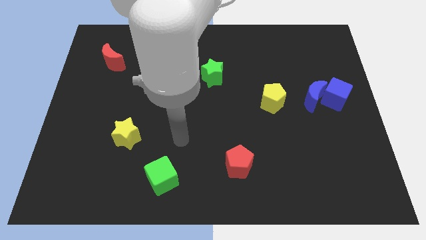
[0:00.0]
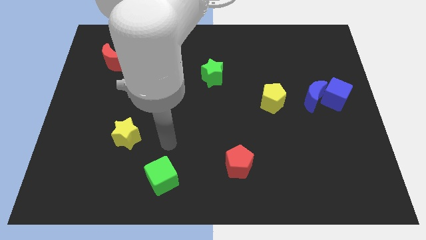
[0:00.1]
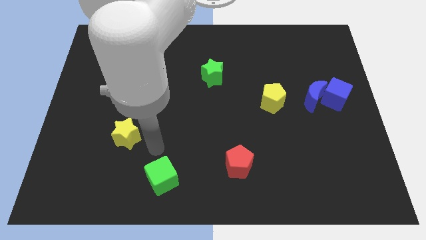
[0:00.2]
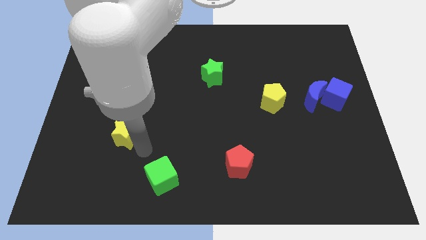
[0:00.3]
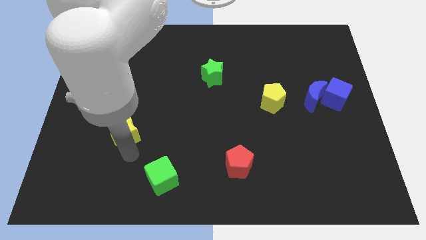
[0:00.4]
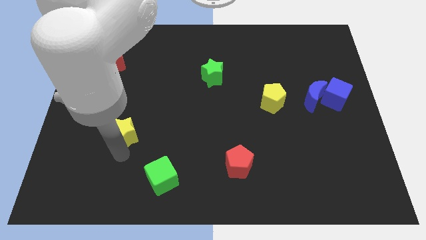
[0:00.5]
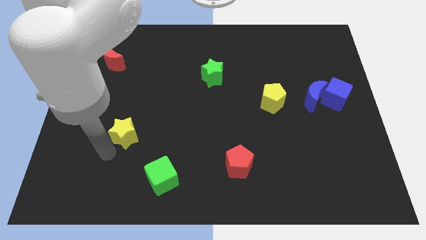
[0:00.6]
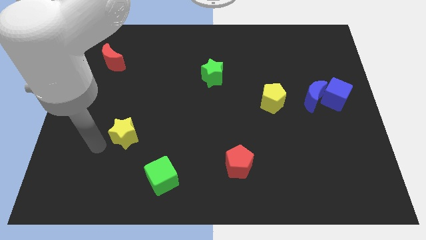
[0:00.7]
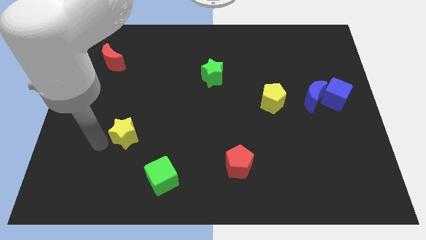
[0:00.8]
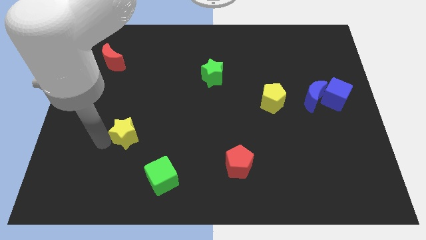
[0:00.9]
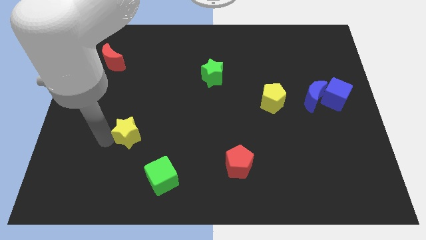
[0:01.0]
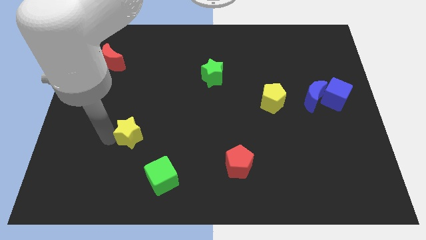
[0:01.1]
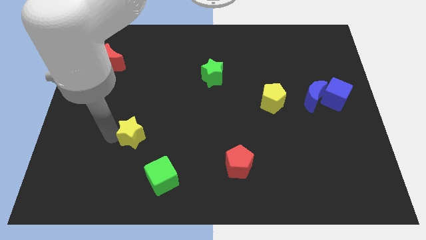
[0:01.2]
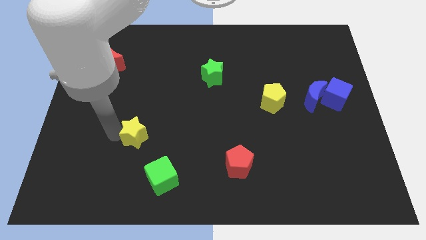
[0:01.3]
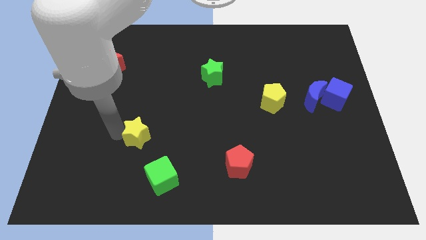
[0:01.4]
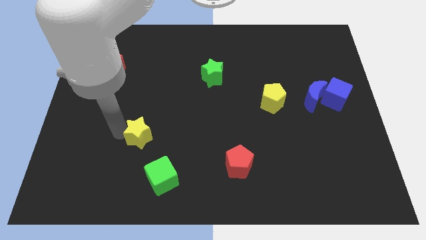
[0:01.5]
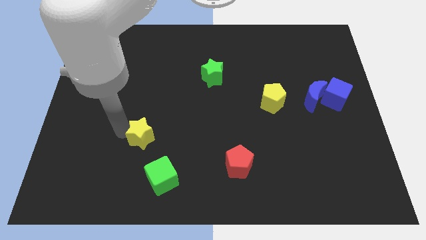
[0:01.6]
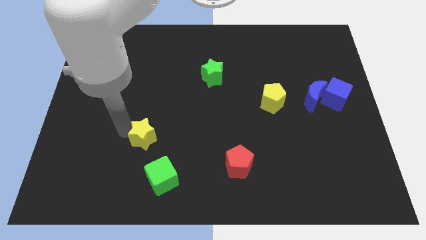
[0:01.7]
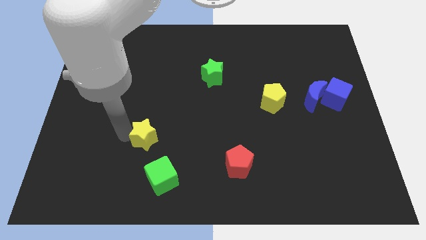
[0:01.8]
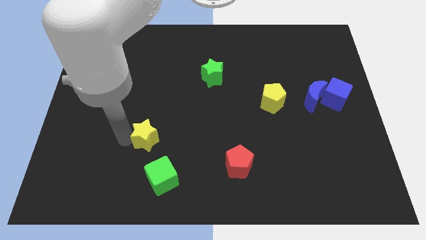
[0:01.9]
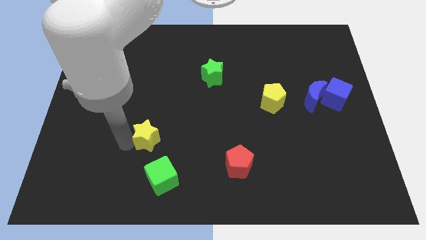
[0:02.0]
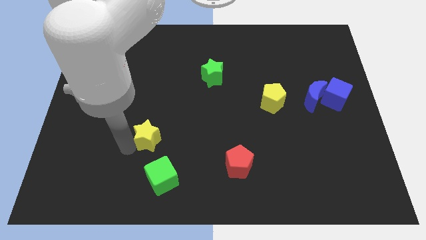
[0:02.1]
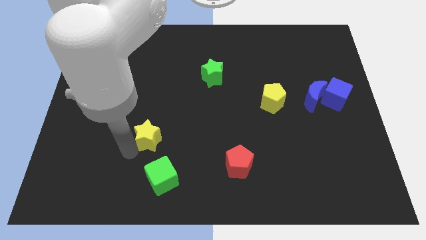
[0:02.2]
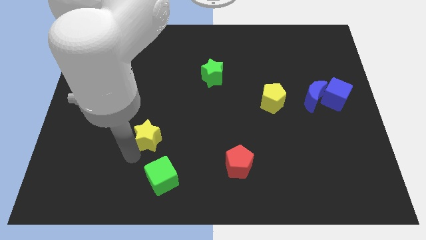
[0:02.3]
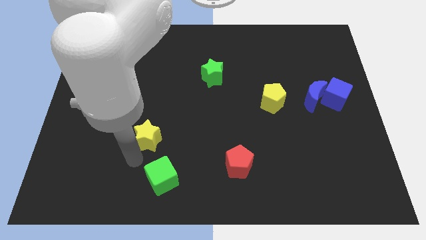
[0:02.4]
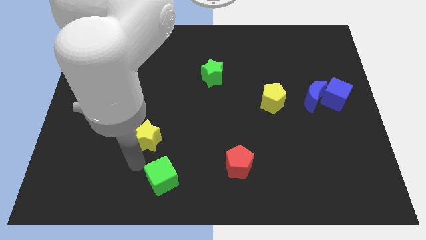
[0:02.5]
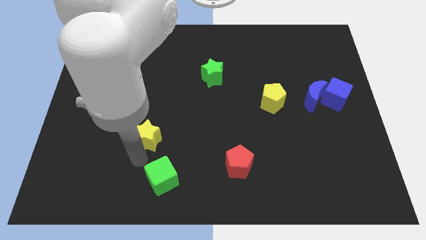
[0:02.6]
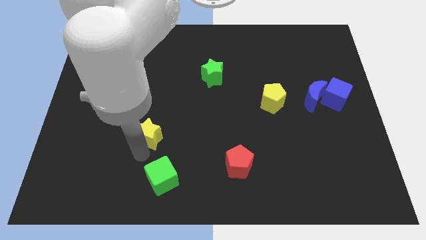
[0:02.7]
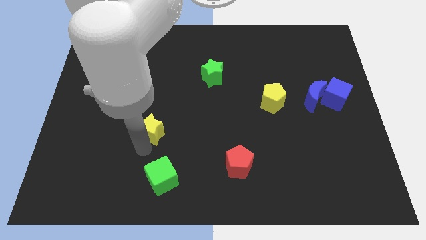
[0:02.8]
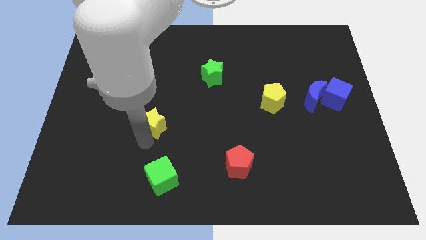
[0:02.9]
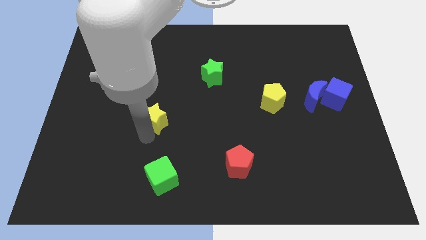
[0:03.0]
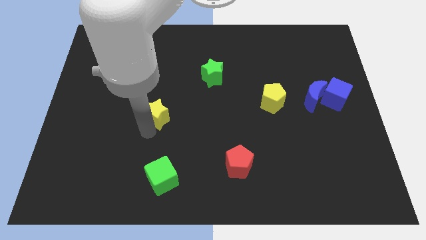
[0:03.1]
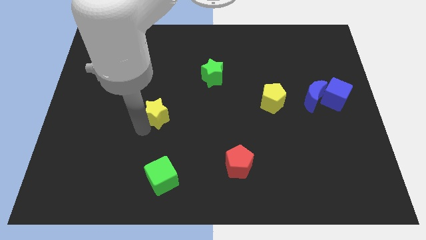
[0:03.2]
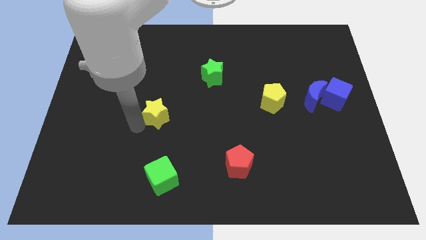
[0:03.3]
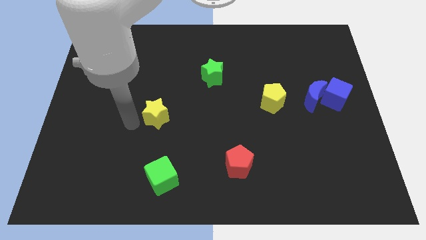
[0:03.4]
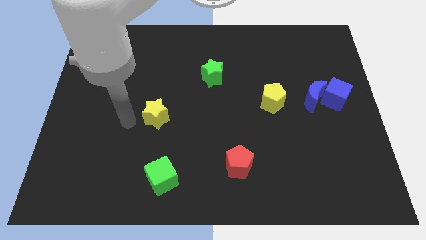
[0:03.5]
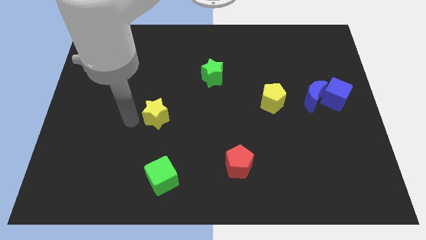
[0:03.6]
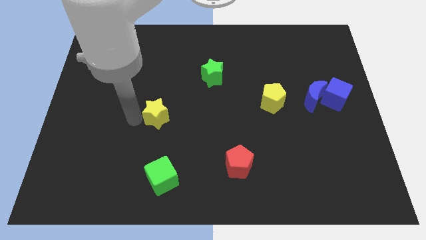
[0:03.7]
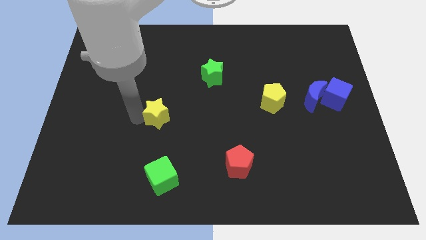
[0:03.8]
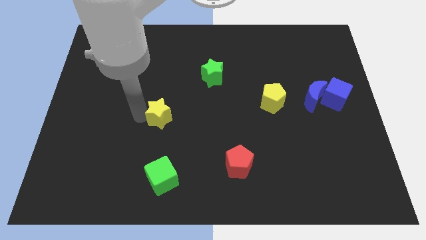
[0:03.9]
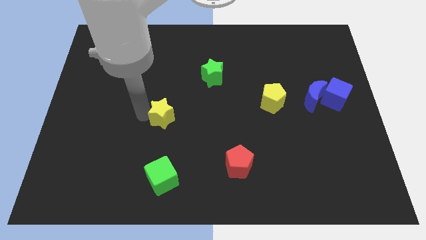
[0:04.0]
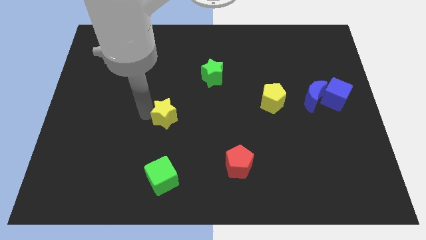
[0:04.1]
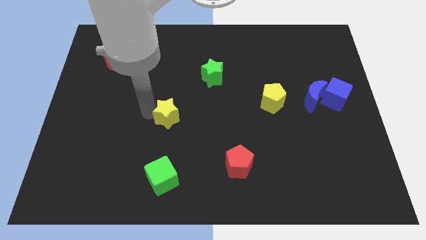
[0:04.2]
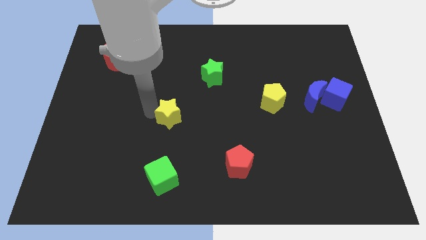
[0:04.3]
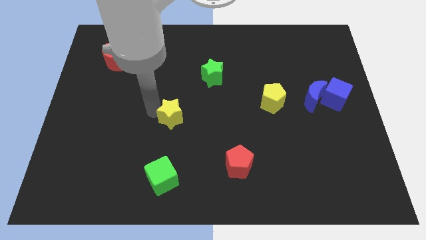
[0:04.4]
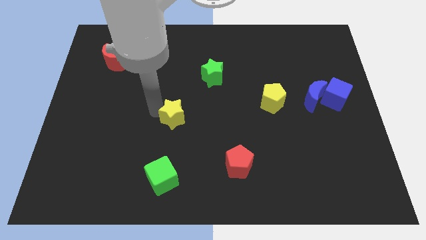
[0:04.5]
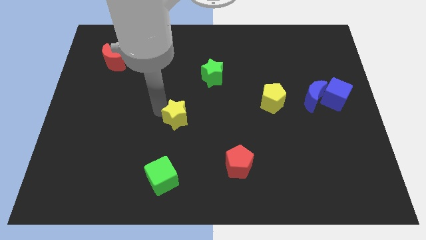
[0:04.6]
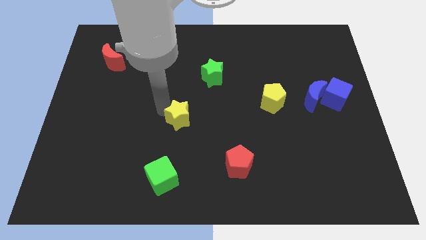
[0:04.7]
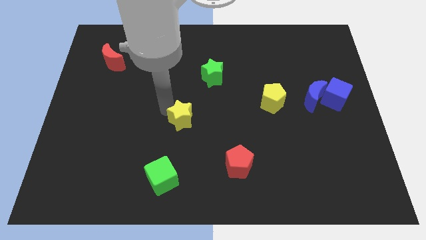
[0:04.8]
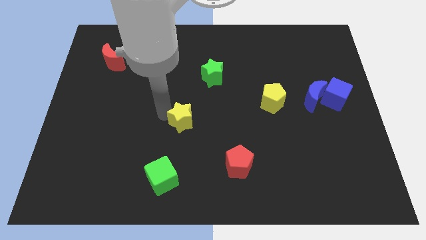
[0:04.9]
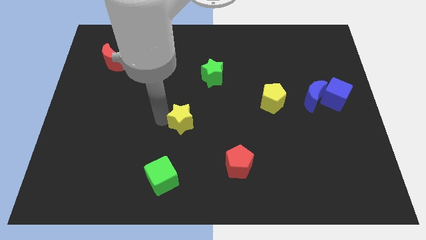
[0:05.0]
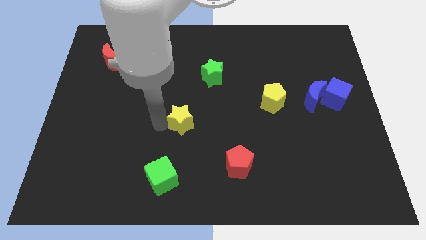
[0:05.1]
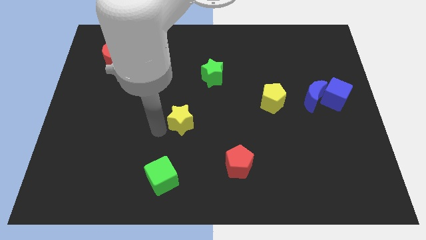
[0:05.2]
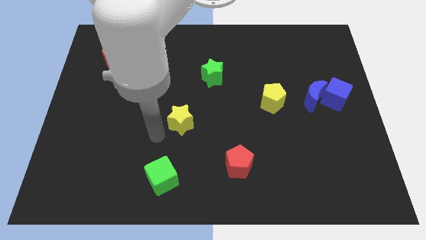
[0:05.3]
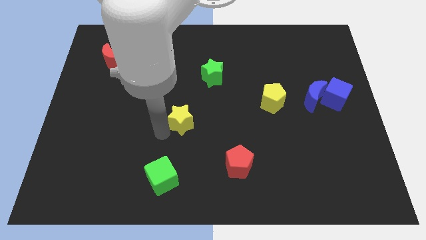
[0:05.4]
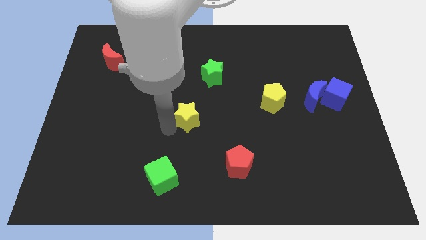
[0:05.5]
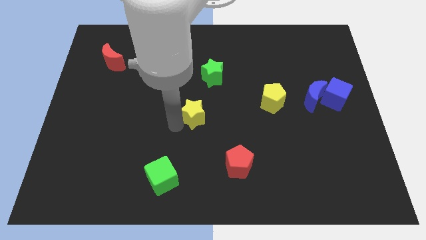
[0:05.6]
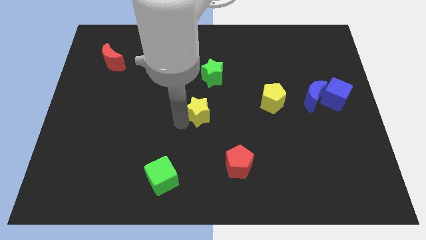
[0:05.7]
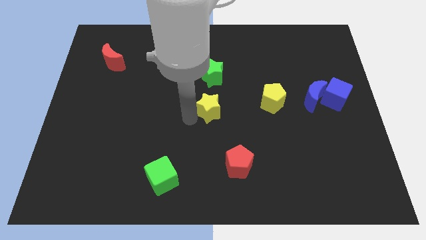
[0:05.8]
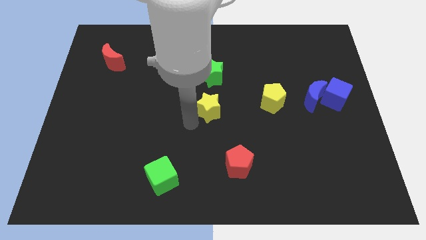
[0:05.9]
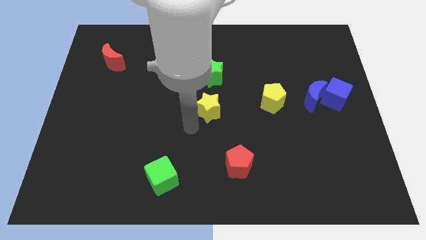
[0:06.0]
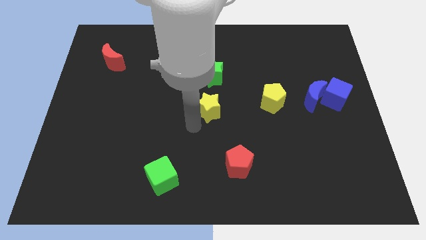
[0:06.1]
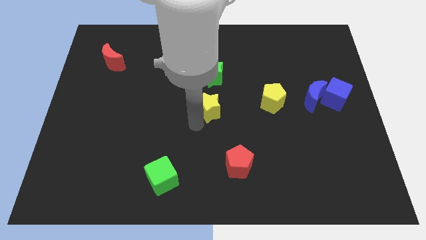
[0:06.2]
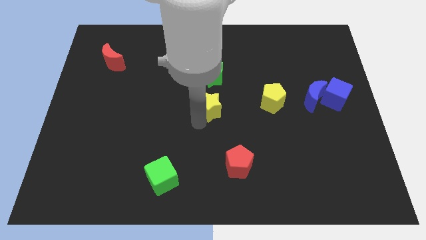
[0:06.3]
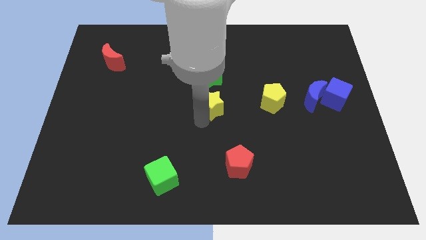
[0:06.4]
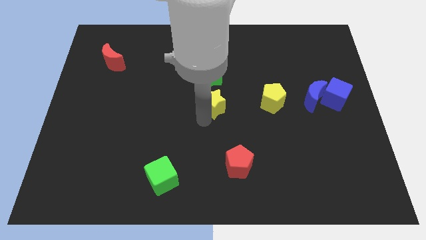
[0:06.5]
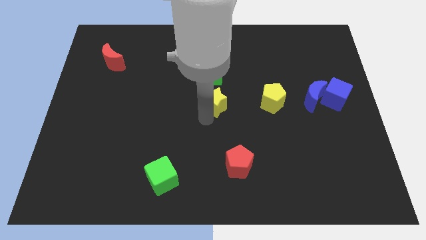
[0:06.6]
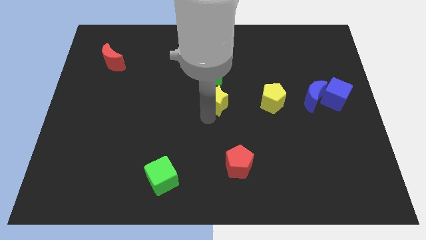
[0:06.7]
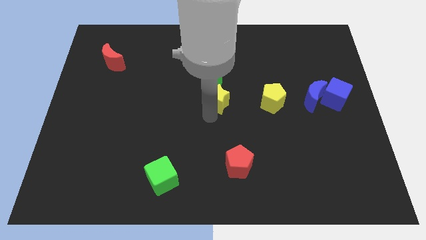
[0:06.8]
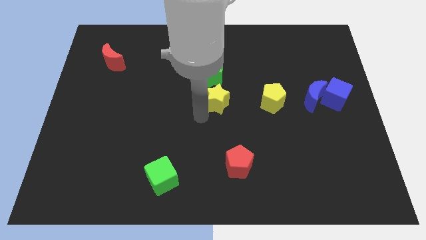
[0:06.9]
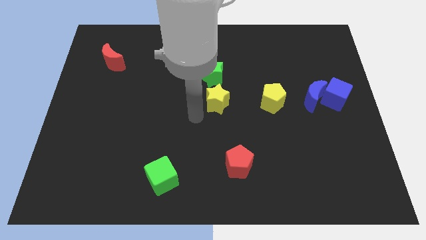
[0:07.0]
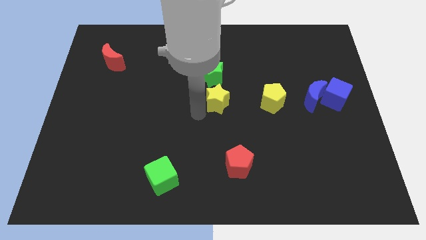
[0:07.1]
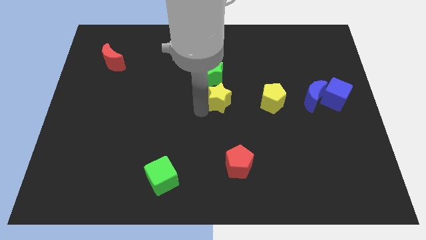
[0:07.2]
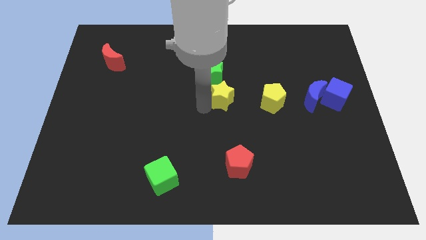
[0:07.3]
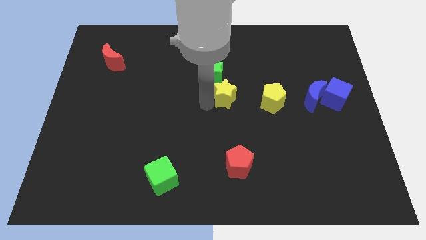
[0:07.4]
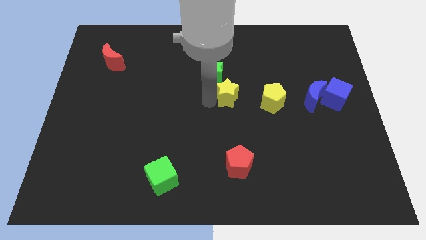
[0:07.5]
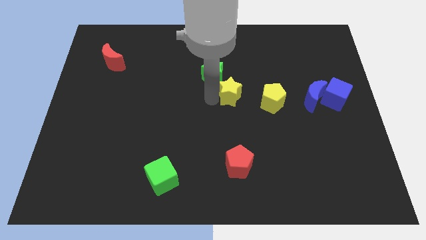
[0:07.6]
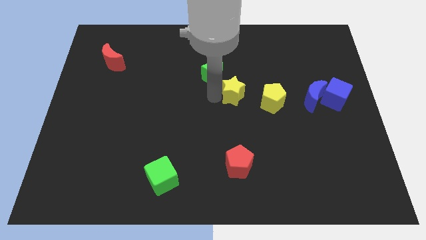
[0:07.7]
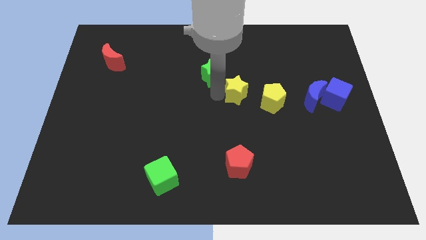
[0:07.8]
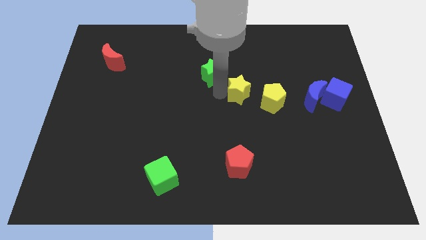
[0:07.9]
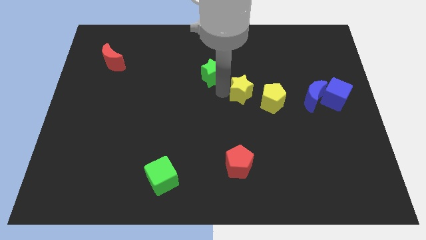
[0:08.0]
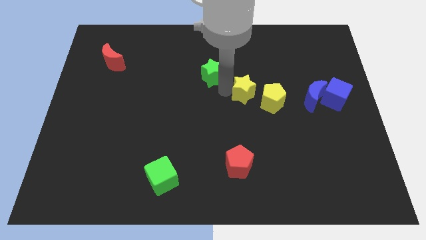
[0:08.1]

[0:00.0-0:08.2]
put the yellow star to the right of the green star
